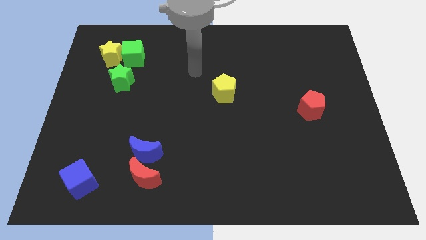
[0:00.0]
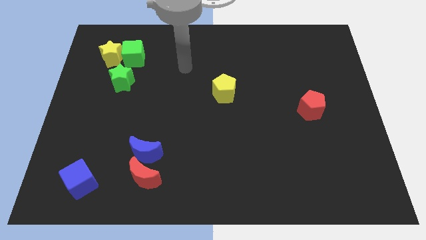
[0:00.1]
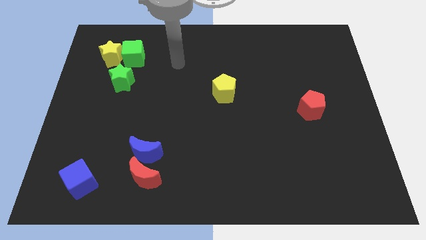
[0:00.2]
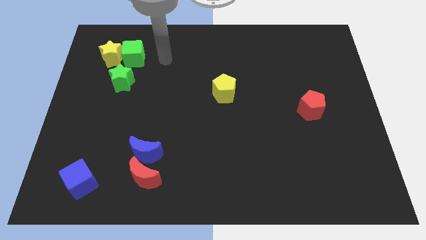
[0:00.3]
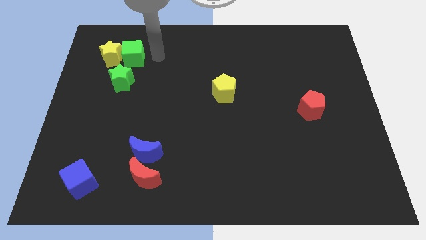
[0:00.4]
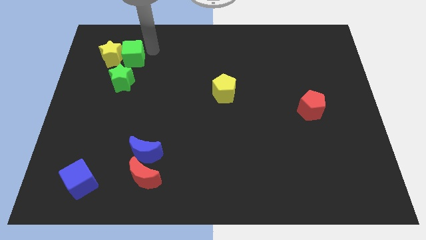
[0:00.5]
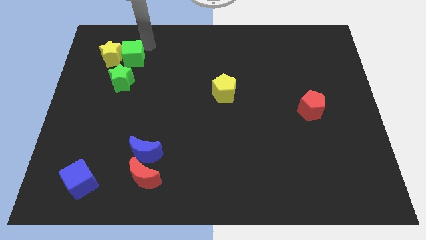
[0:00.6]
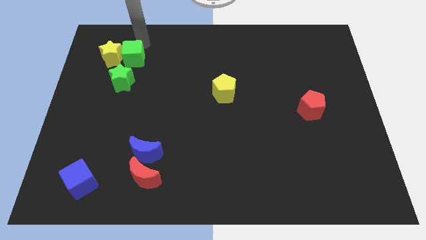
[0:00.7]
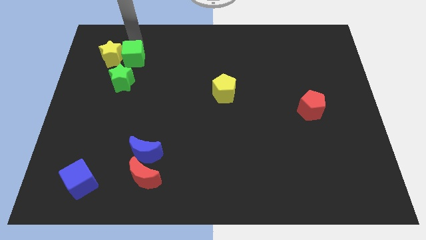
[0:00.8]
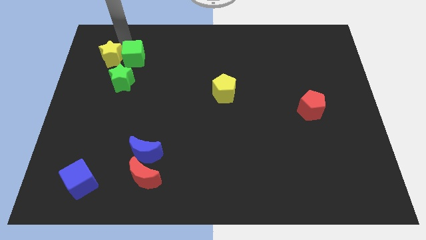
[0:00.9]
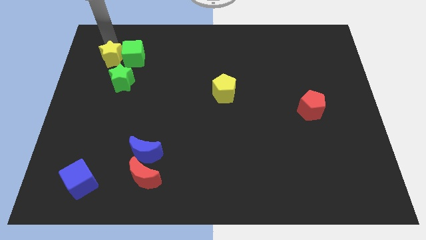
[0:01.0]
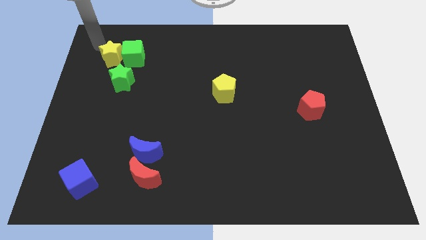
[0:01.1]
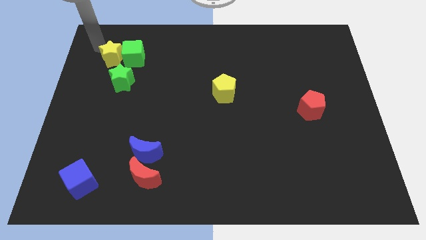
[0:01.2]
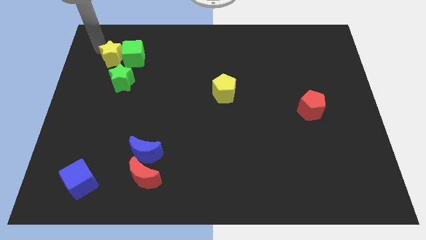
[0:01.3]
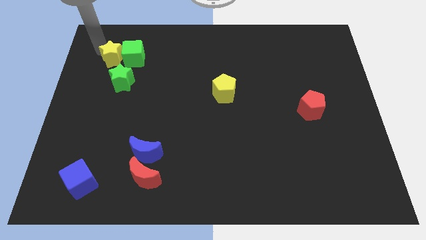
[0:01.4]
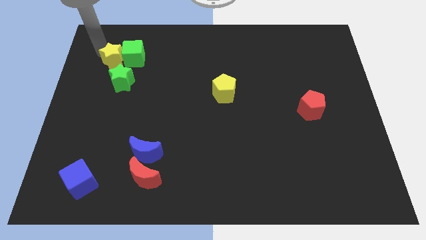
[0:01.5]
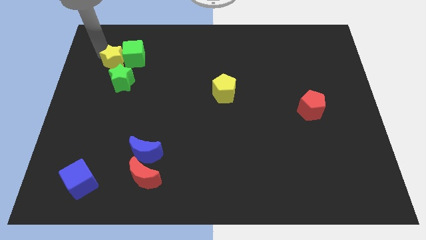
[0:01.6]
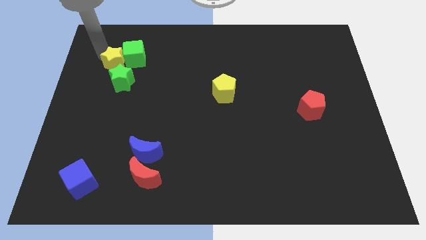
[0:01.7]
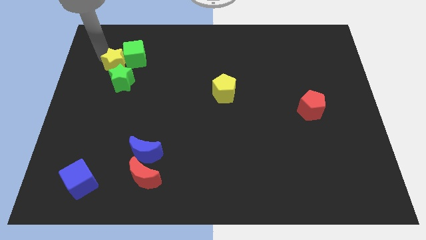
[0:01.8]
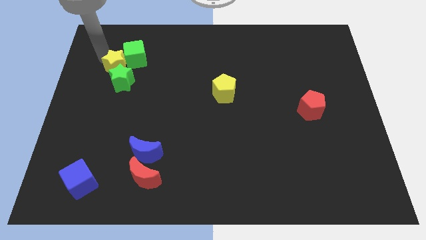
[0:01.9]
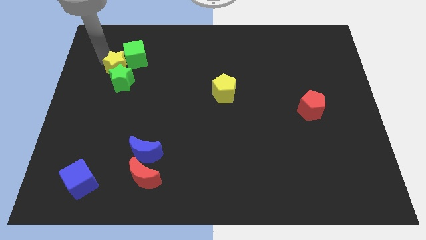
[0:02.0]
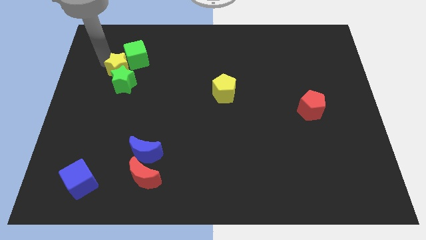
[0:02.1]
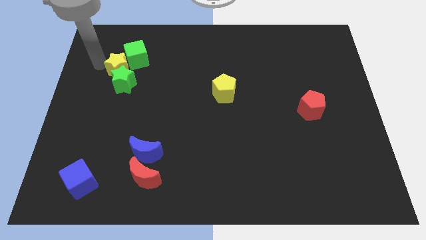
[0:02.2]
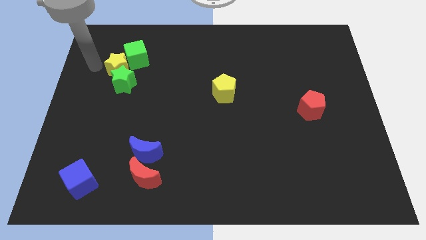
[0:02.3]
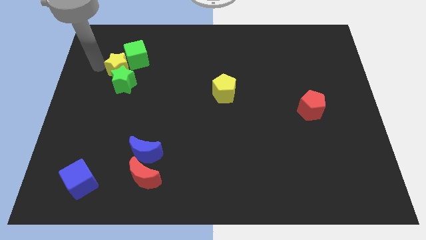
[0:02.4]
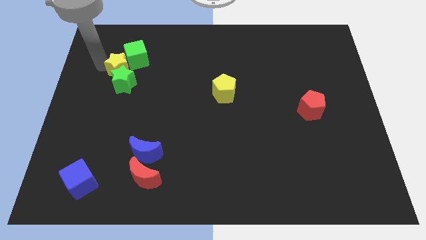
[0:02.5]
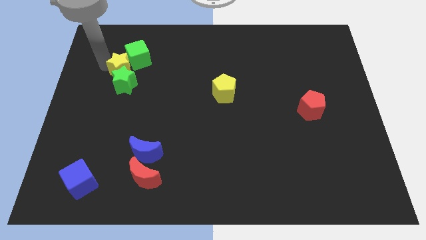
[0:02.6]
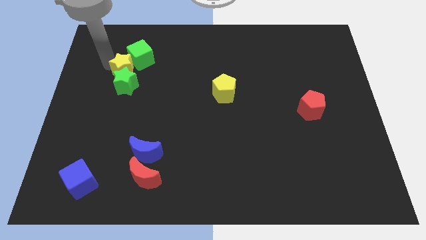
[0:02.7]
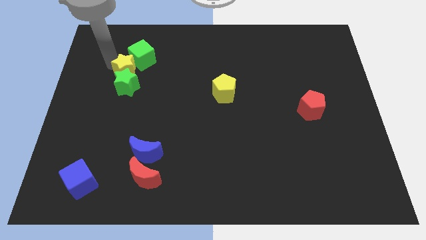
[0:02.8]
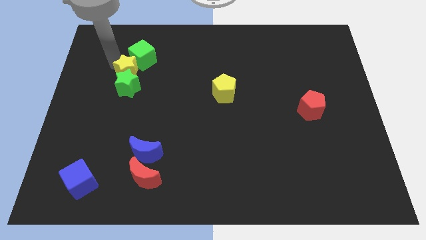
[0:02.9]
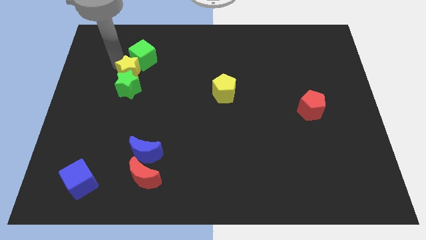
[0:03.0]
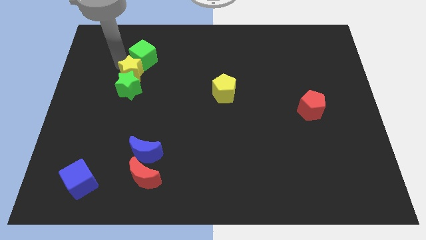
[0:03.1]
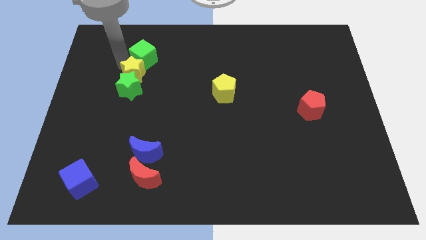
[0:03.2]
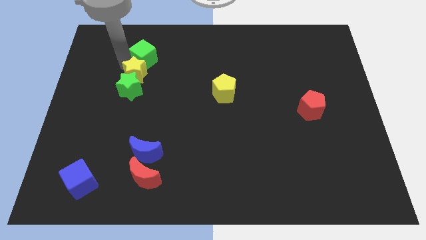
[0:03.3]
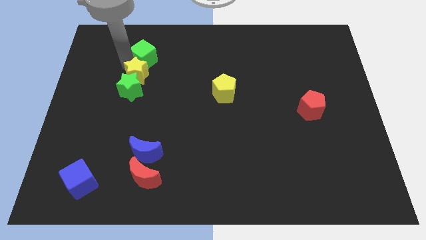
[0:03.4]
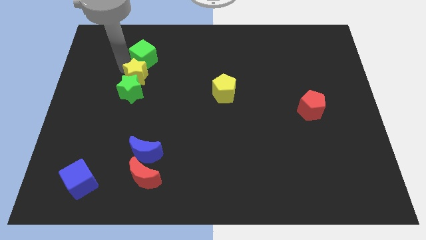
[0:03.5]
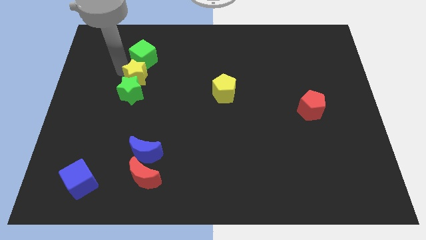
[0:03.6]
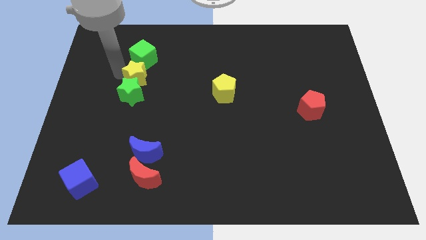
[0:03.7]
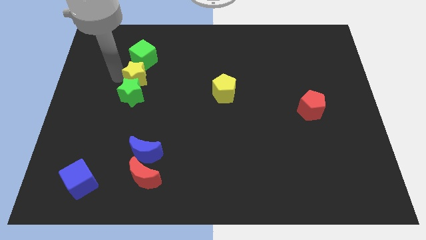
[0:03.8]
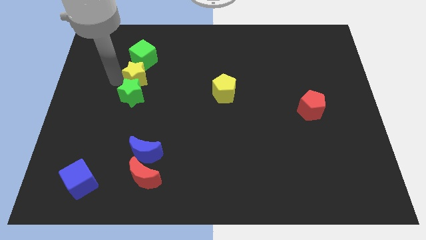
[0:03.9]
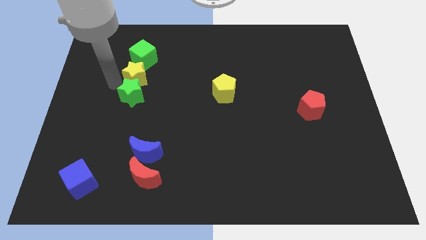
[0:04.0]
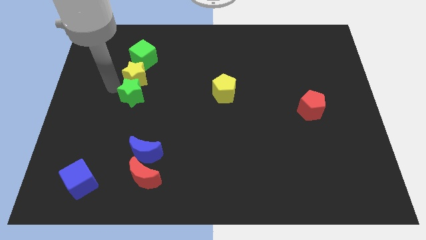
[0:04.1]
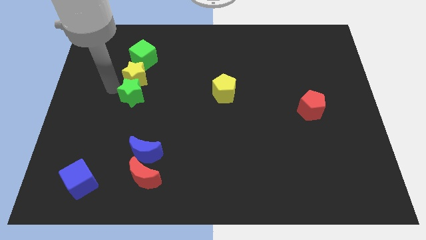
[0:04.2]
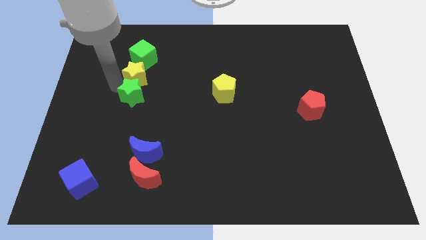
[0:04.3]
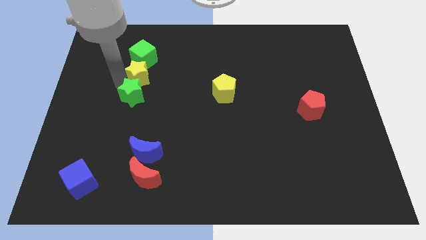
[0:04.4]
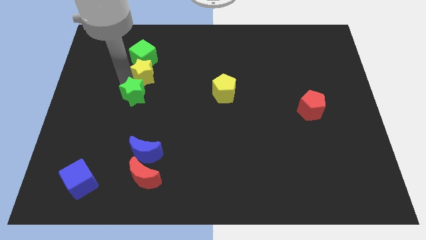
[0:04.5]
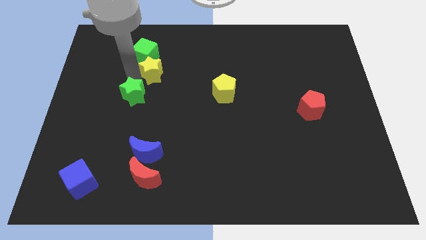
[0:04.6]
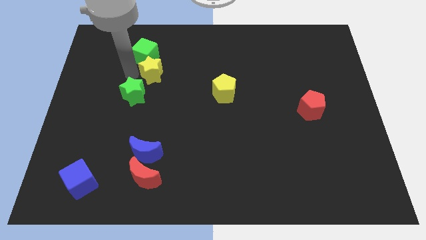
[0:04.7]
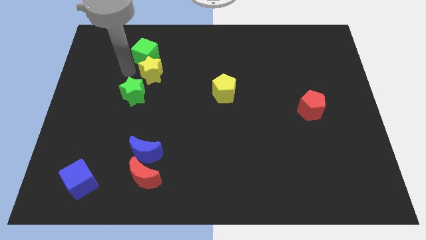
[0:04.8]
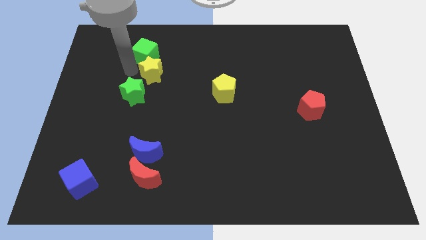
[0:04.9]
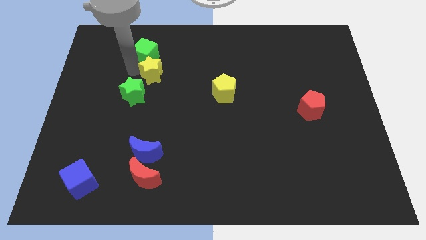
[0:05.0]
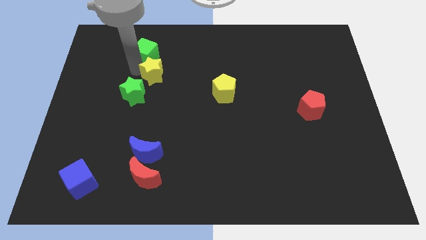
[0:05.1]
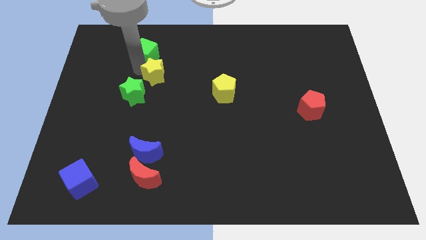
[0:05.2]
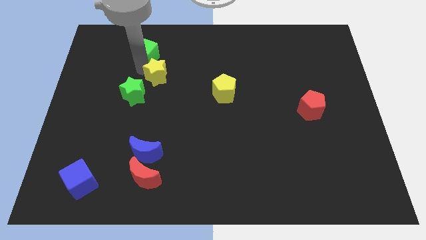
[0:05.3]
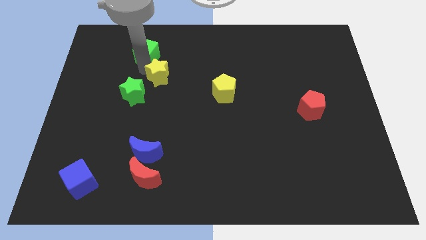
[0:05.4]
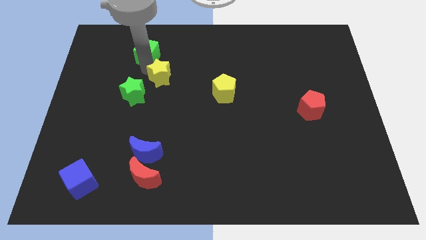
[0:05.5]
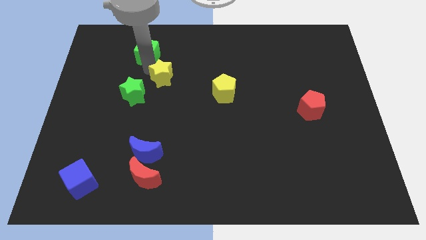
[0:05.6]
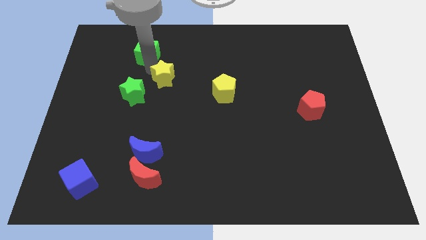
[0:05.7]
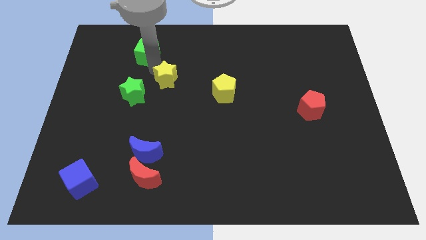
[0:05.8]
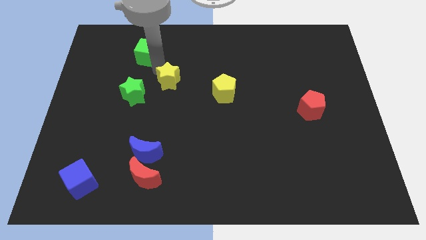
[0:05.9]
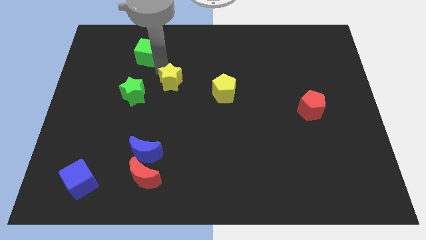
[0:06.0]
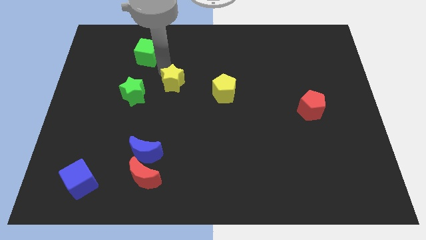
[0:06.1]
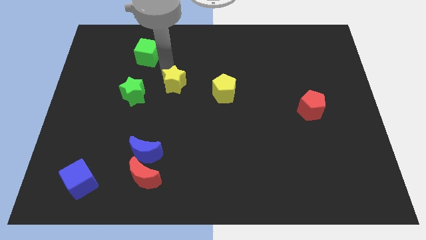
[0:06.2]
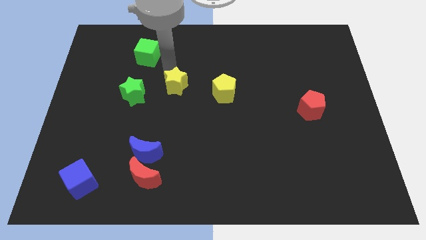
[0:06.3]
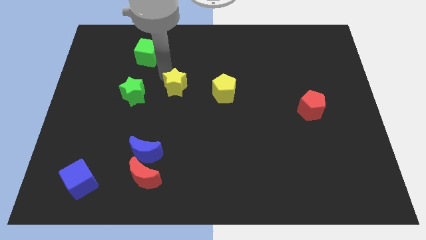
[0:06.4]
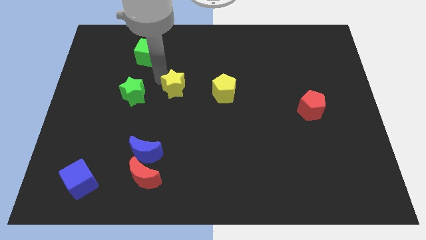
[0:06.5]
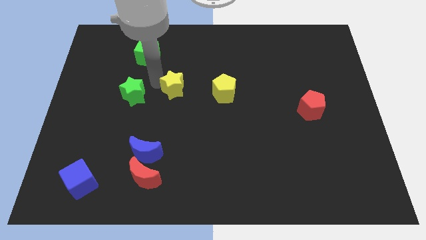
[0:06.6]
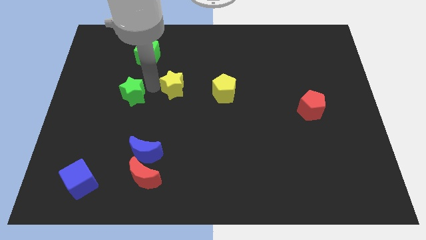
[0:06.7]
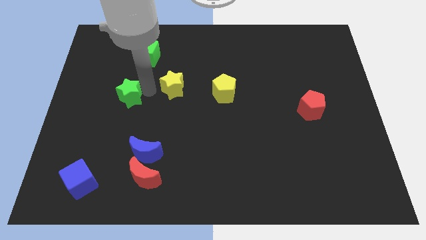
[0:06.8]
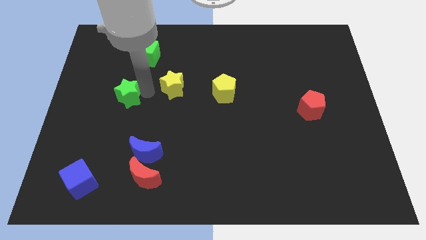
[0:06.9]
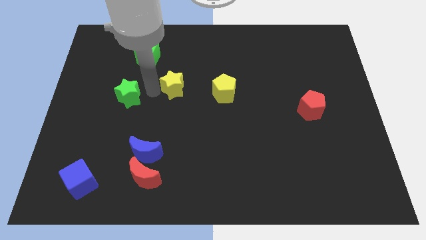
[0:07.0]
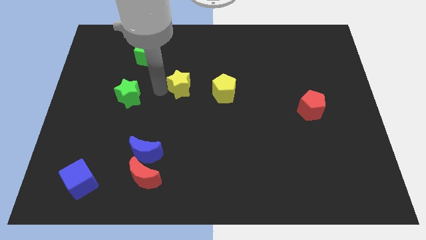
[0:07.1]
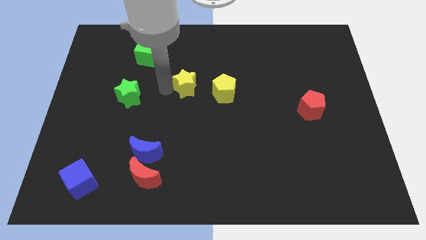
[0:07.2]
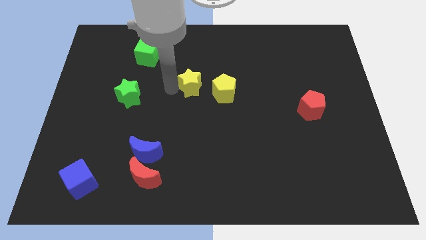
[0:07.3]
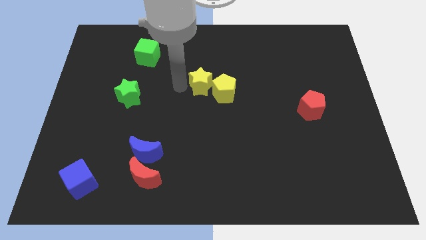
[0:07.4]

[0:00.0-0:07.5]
push the yellow star close to the yellow pentagon
